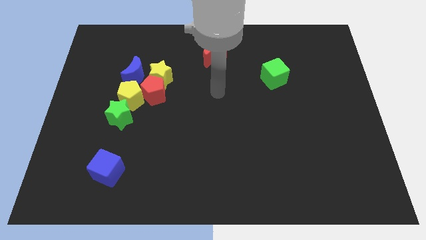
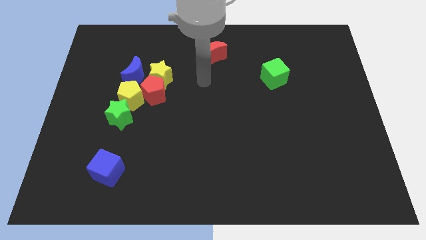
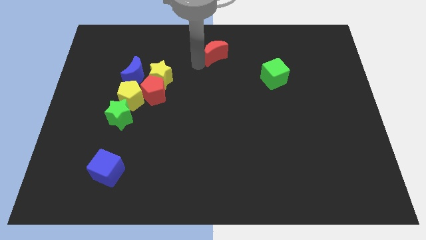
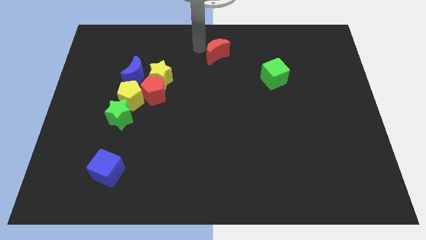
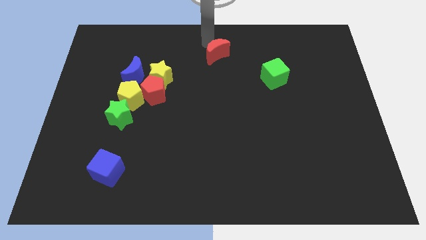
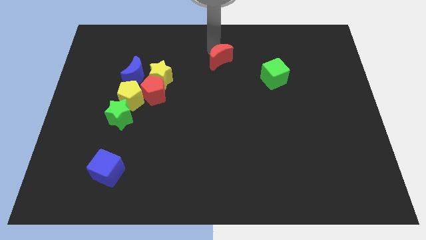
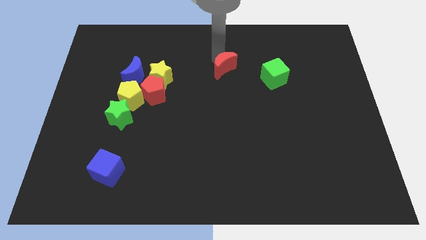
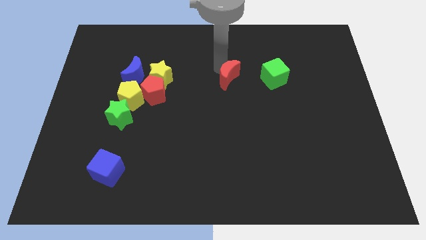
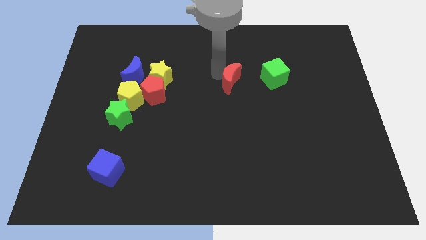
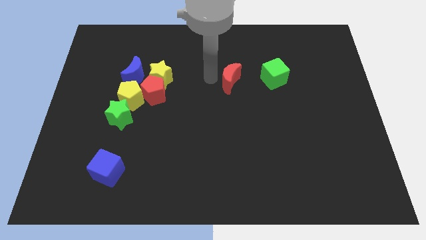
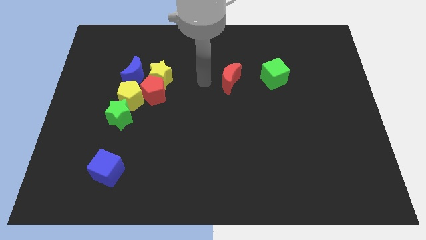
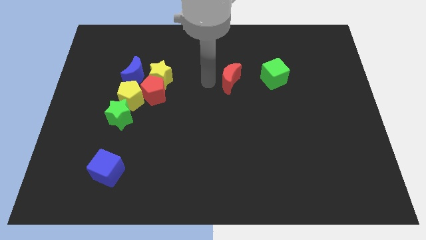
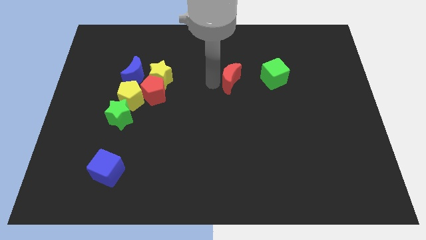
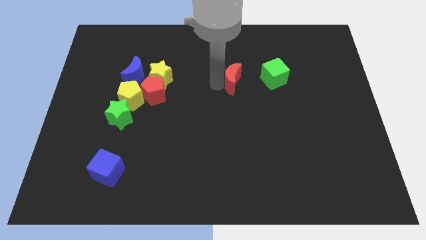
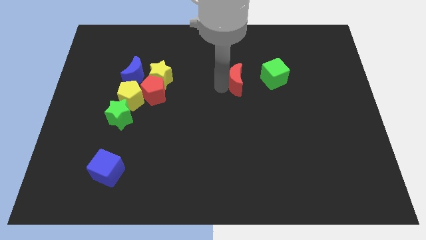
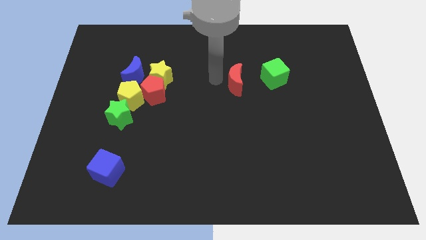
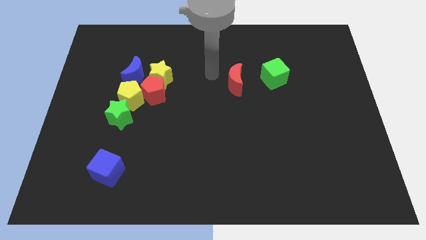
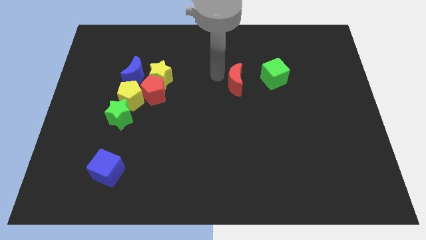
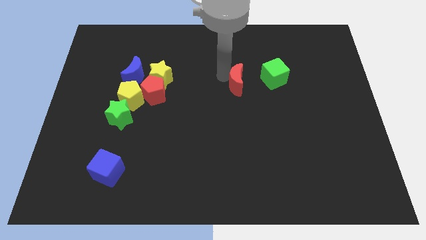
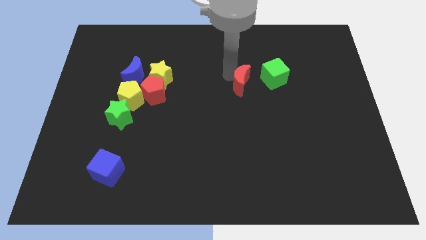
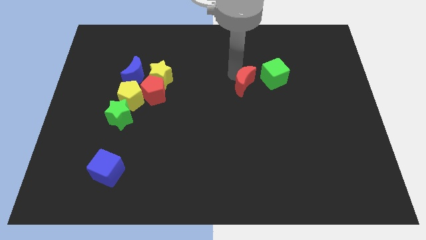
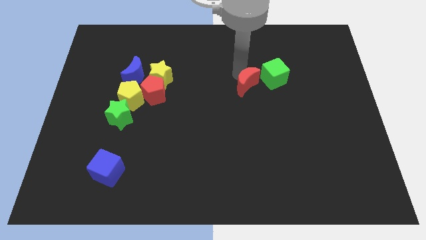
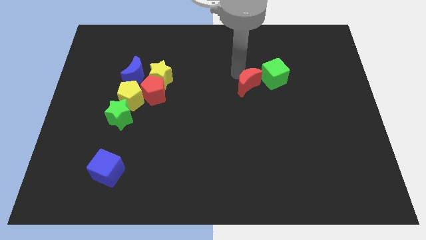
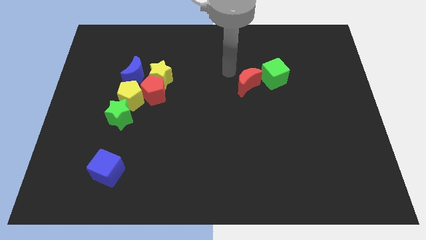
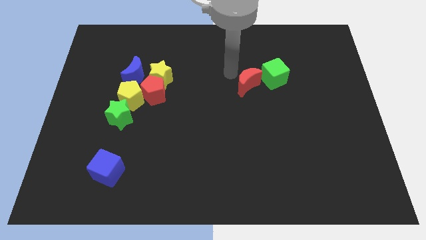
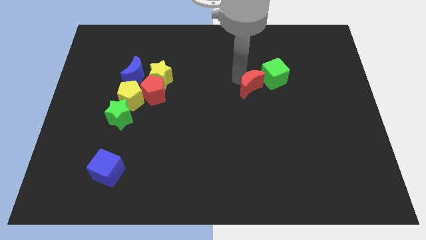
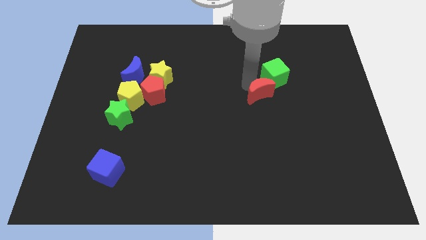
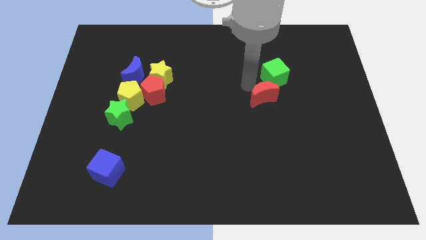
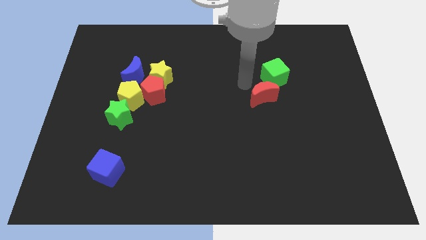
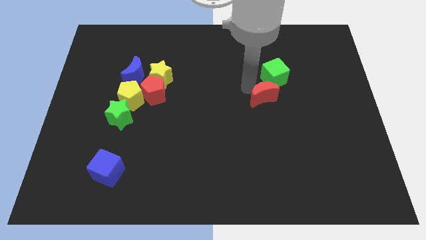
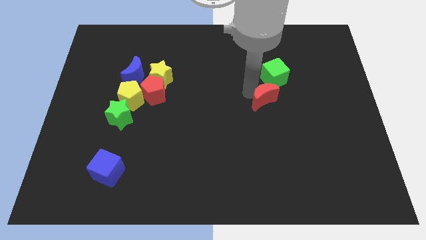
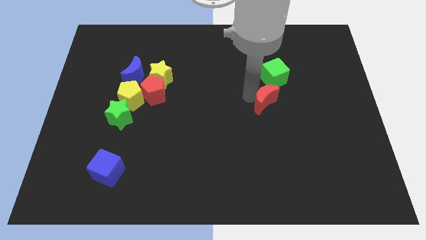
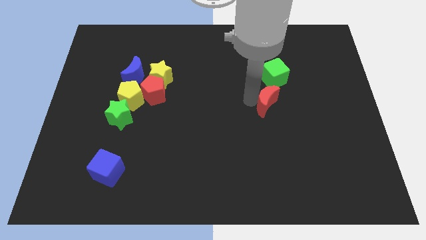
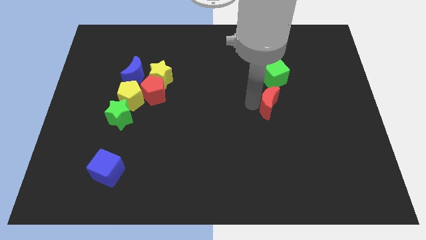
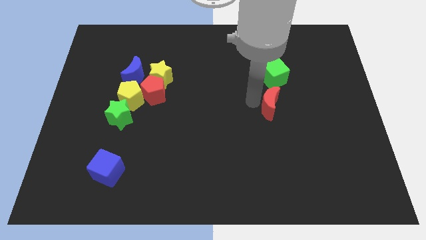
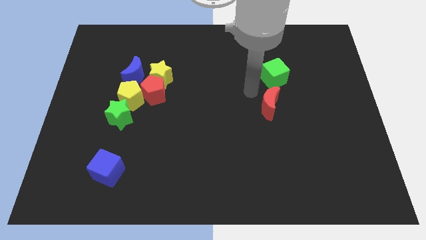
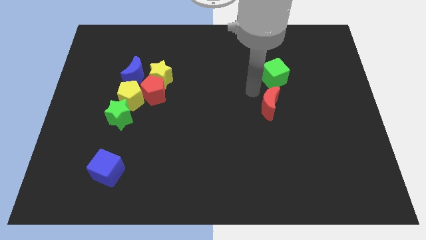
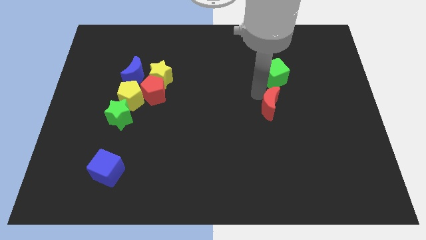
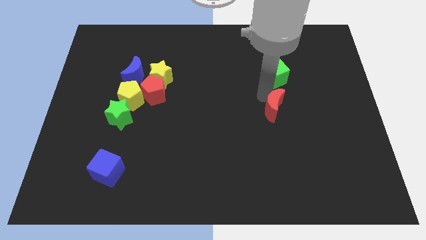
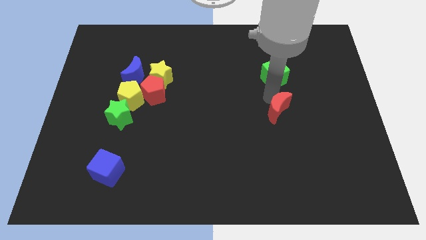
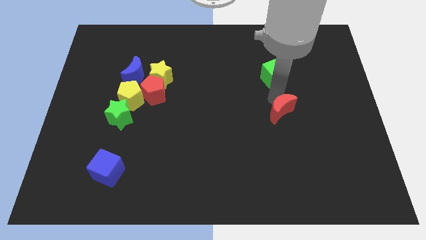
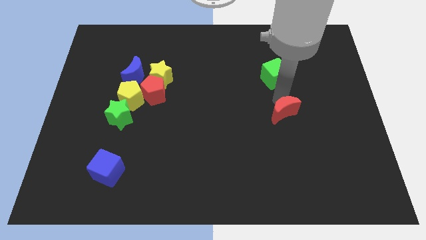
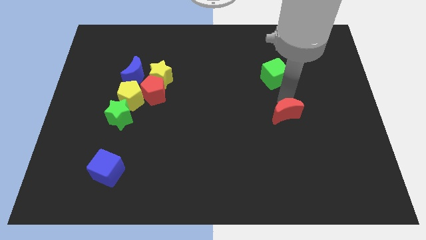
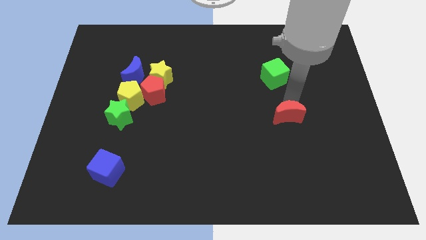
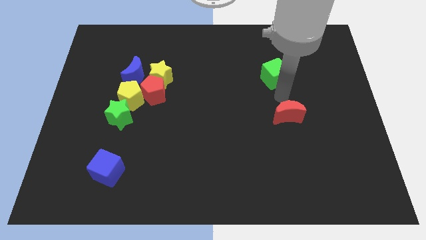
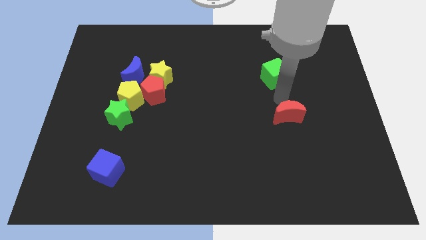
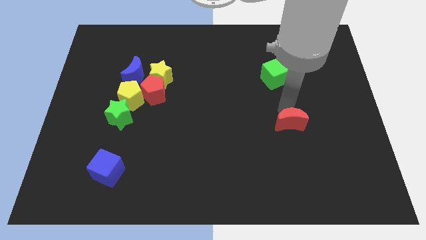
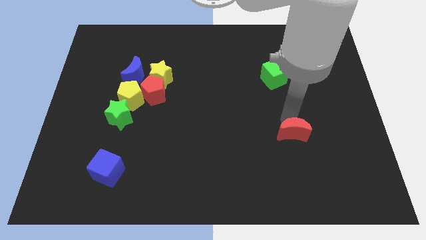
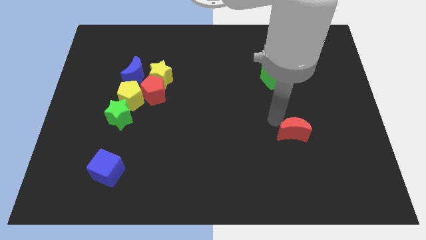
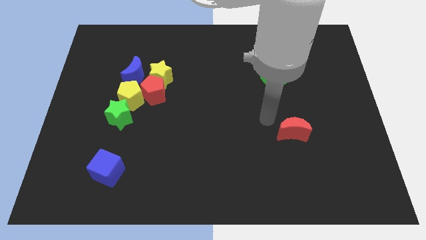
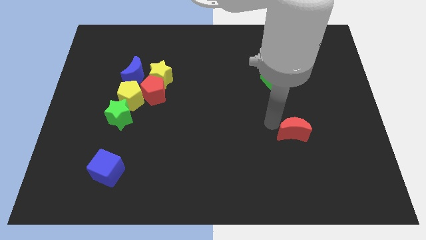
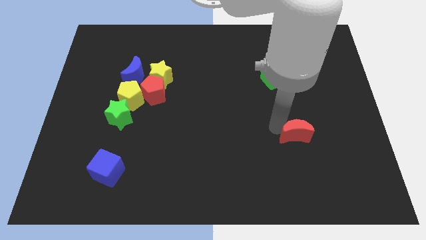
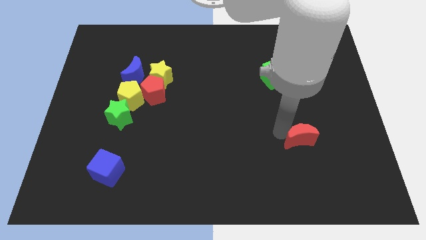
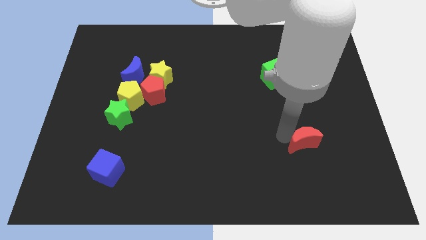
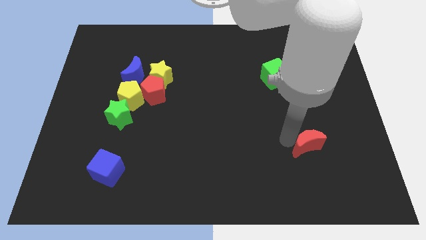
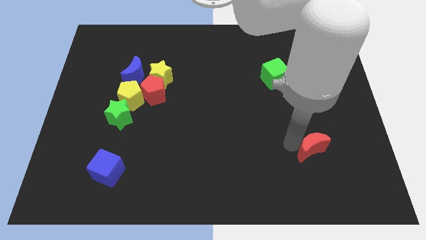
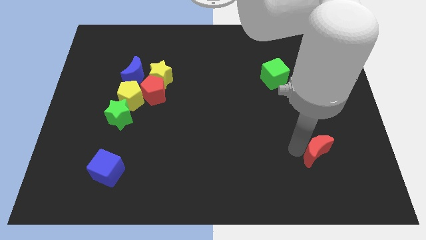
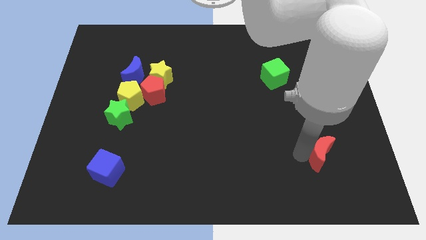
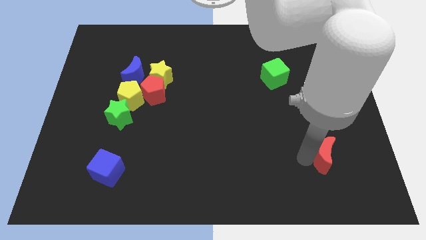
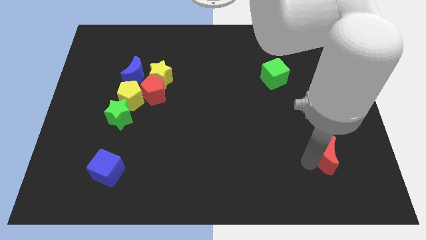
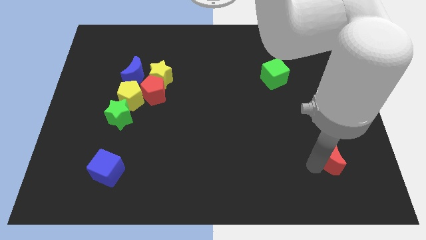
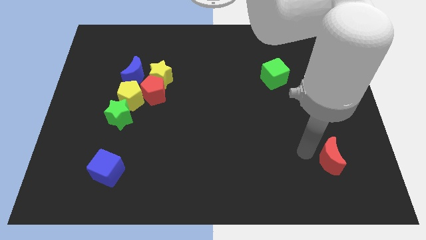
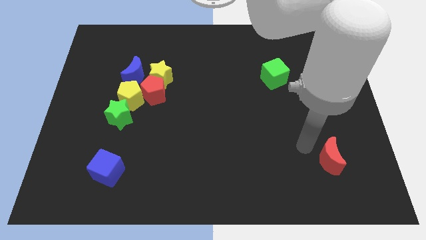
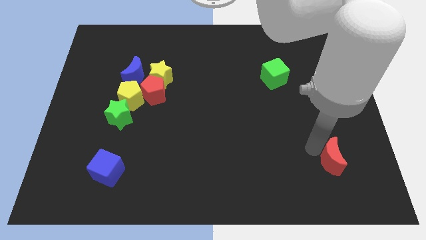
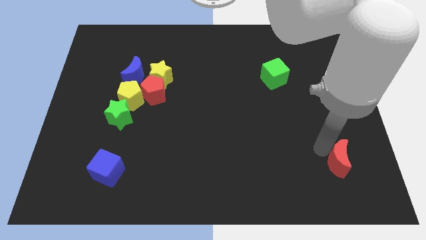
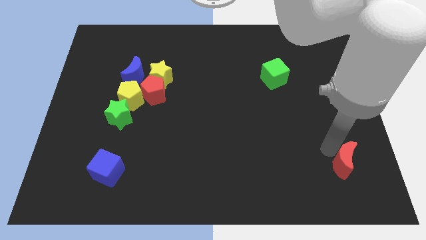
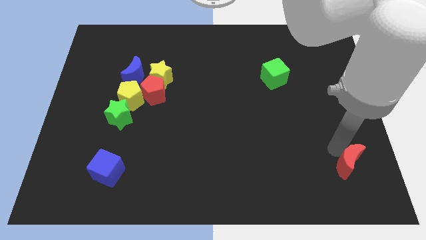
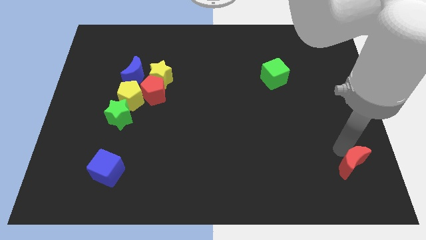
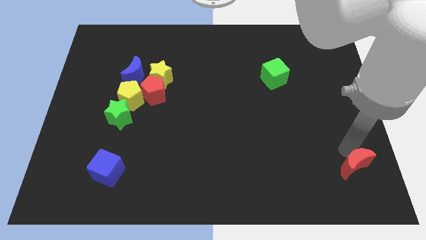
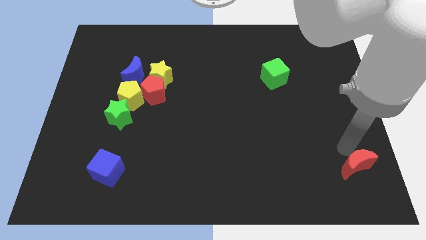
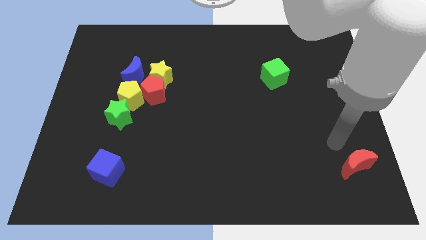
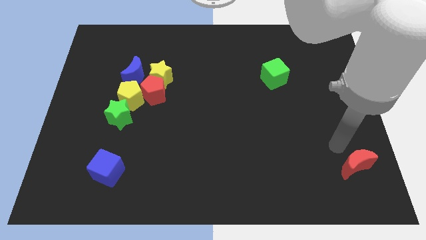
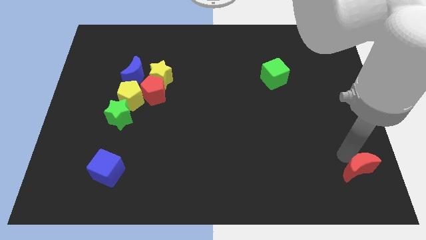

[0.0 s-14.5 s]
move the red moon to the bottom right of the board
